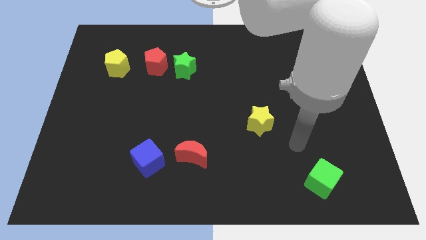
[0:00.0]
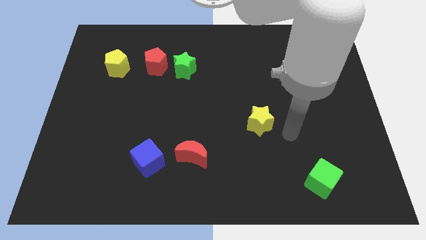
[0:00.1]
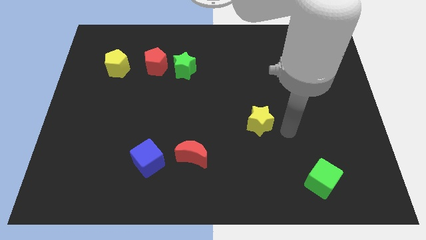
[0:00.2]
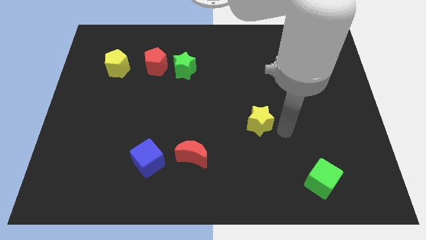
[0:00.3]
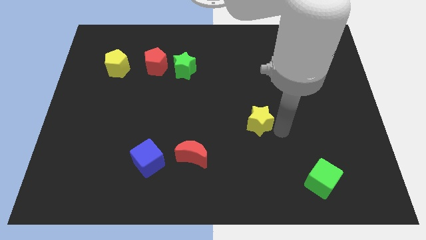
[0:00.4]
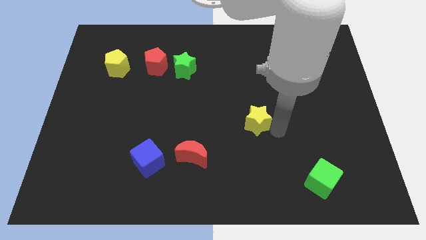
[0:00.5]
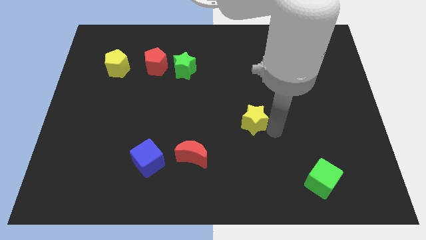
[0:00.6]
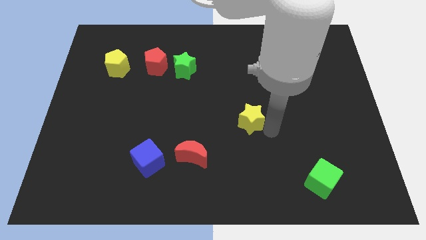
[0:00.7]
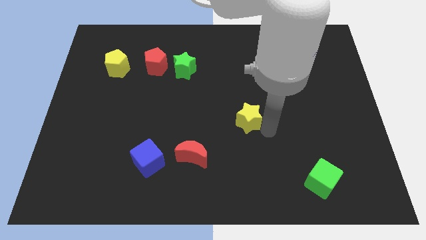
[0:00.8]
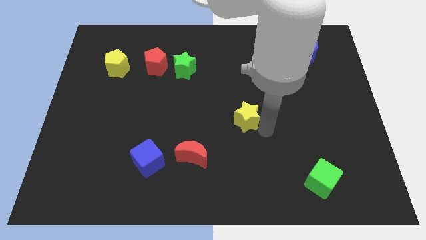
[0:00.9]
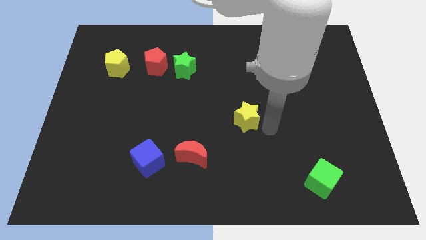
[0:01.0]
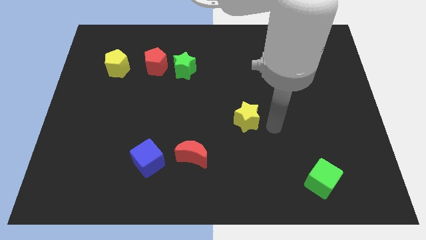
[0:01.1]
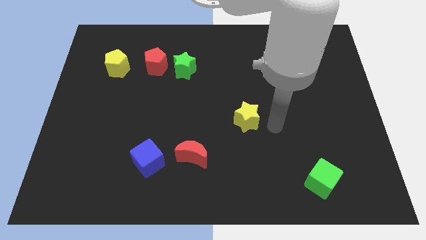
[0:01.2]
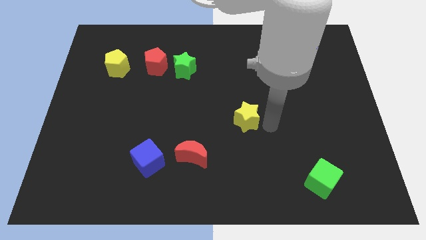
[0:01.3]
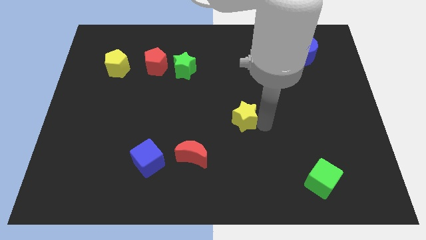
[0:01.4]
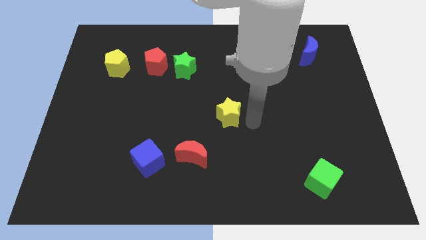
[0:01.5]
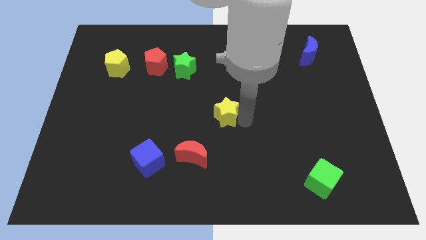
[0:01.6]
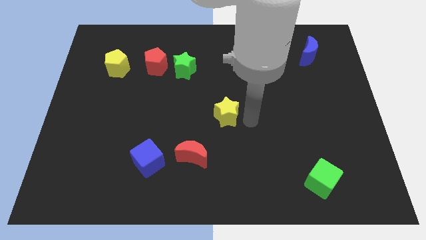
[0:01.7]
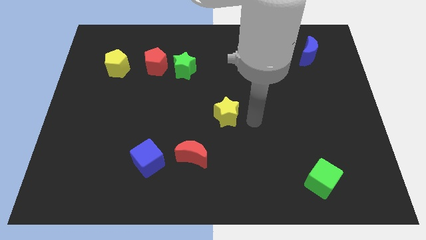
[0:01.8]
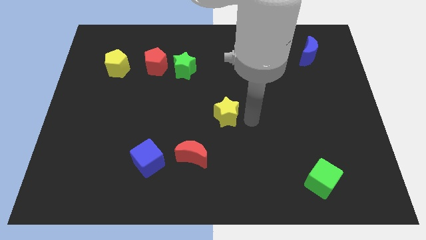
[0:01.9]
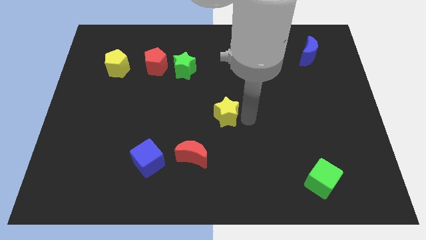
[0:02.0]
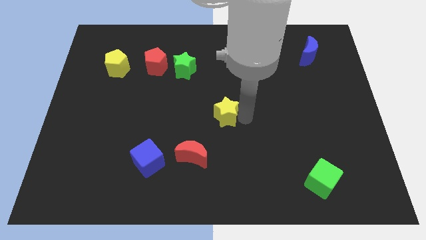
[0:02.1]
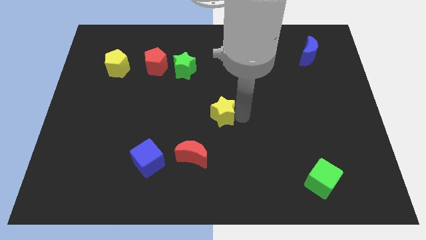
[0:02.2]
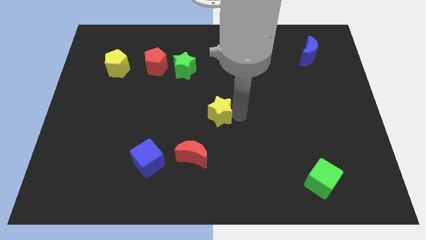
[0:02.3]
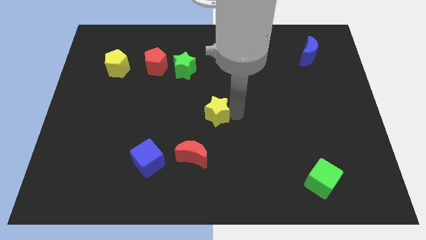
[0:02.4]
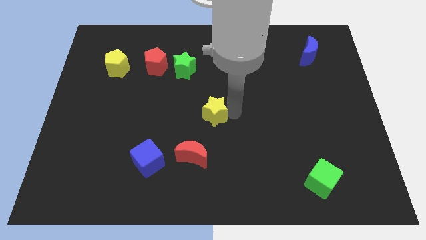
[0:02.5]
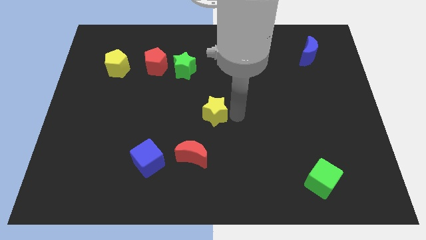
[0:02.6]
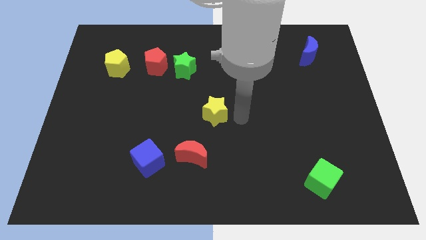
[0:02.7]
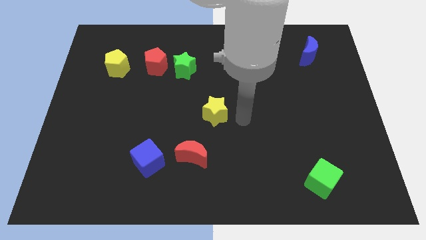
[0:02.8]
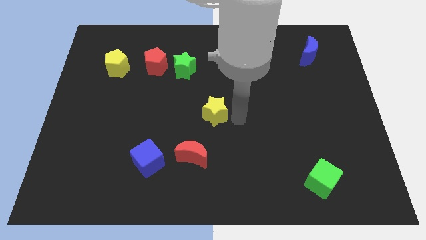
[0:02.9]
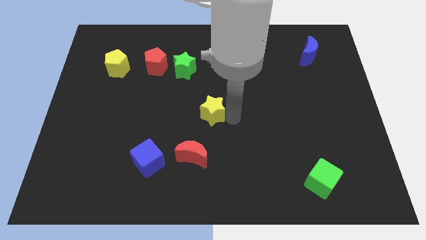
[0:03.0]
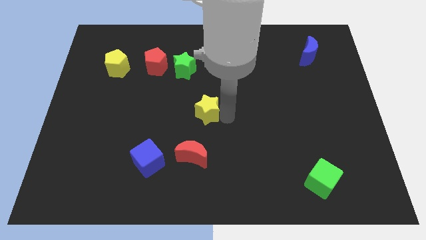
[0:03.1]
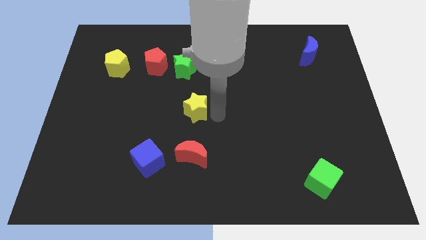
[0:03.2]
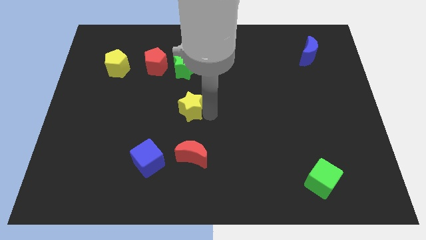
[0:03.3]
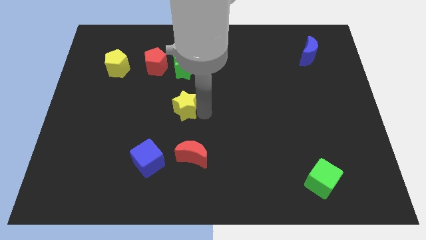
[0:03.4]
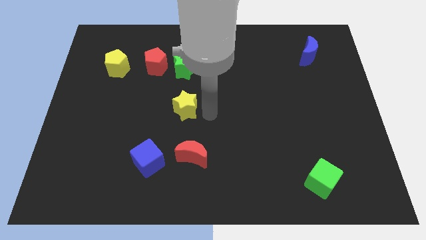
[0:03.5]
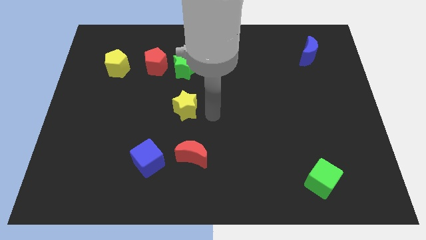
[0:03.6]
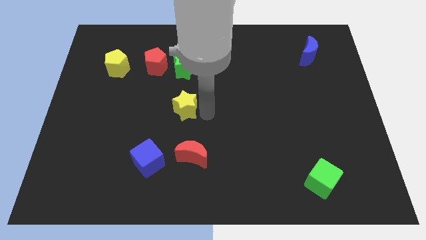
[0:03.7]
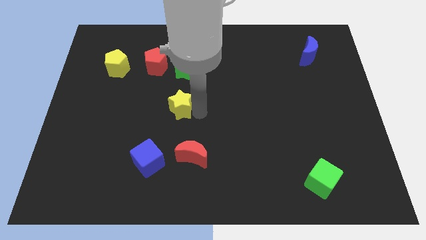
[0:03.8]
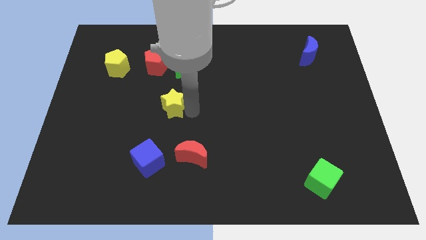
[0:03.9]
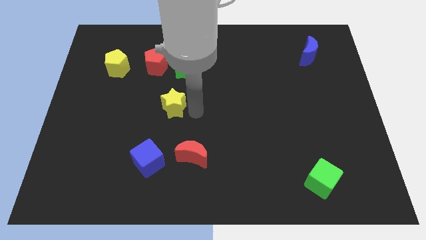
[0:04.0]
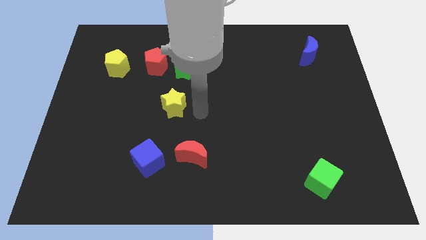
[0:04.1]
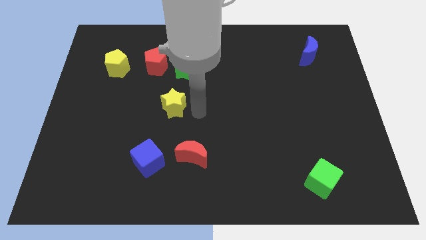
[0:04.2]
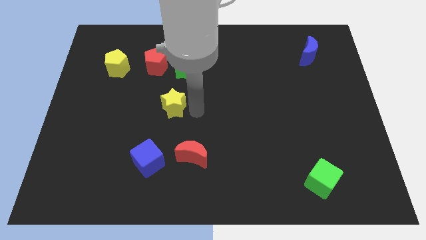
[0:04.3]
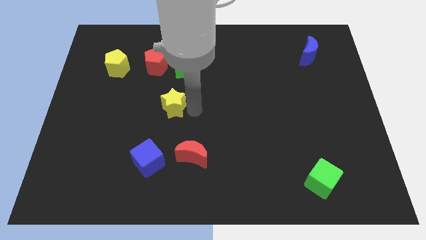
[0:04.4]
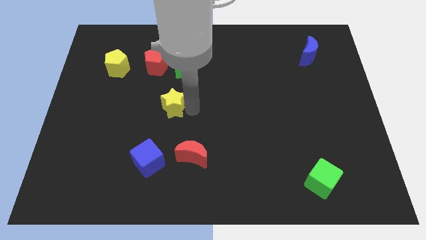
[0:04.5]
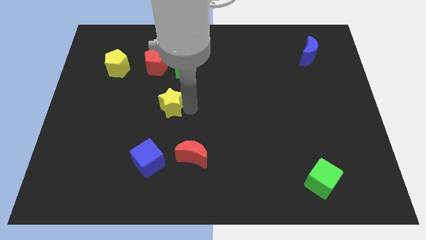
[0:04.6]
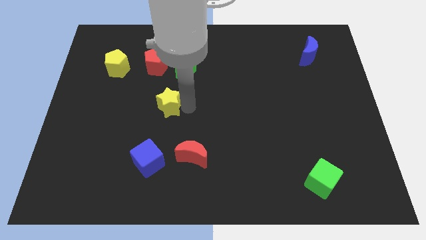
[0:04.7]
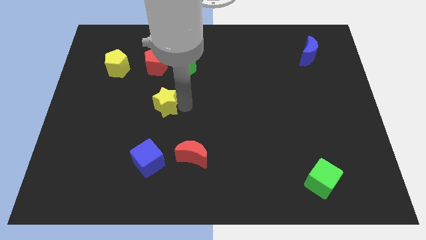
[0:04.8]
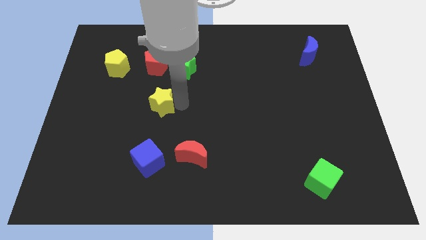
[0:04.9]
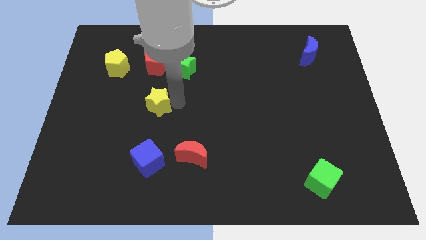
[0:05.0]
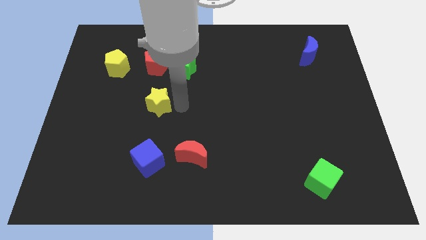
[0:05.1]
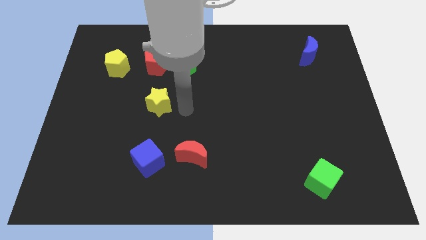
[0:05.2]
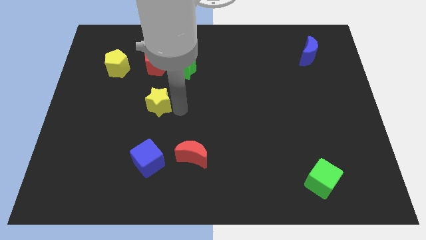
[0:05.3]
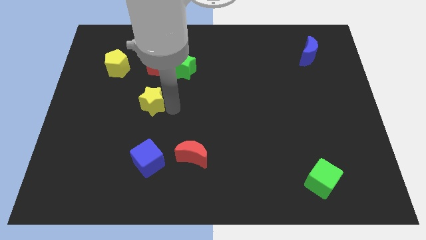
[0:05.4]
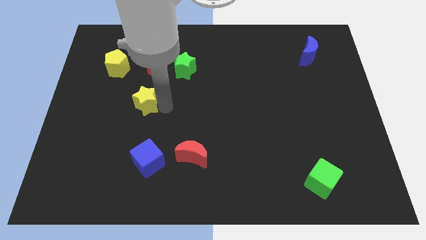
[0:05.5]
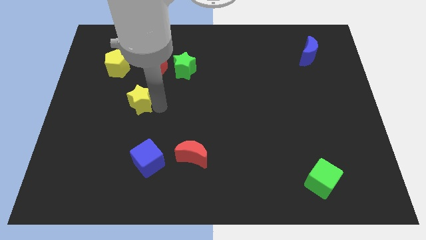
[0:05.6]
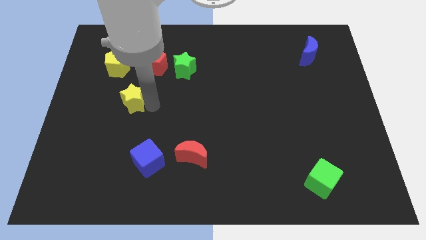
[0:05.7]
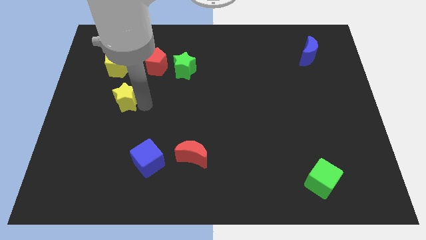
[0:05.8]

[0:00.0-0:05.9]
push the yellow star to the bottom side of the yellow pentagon

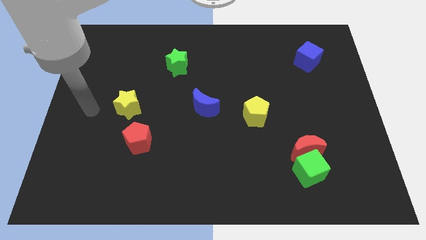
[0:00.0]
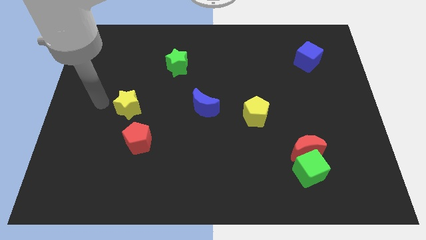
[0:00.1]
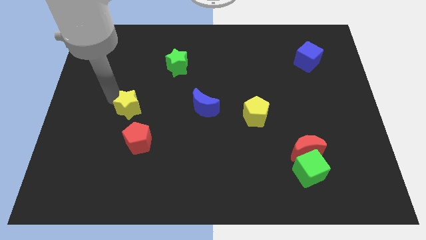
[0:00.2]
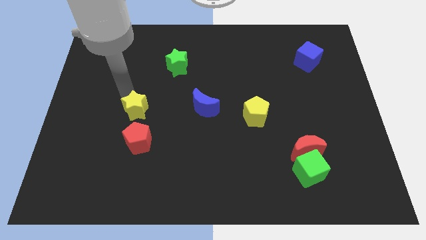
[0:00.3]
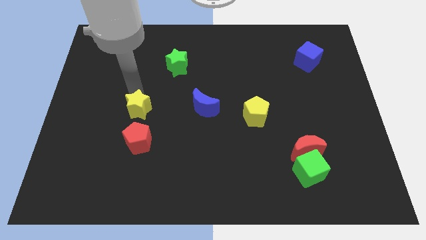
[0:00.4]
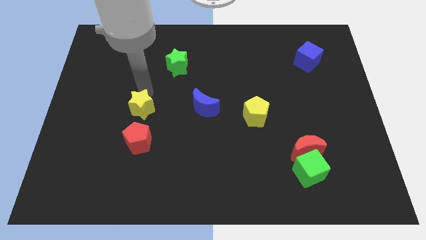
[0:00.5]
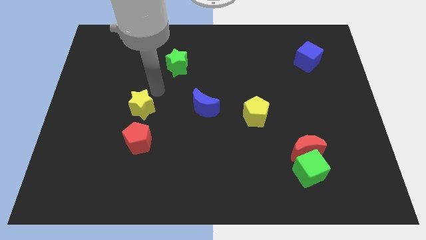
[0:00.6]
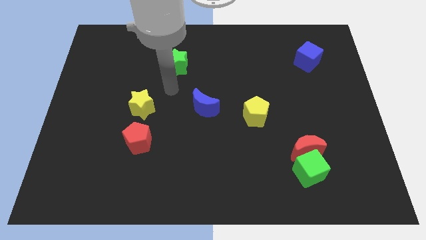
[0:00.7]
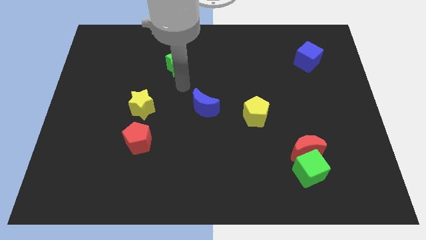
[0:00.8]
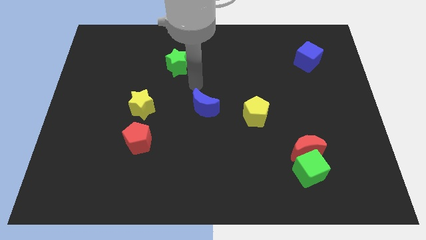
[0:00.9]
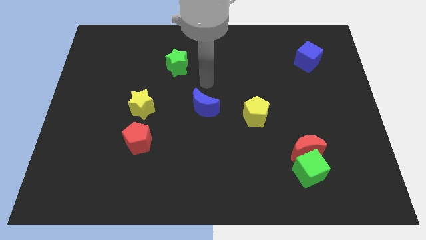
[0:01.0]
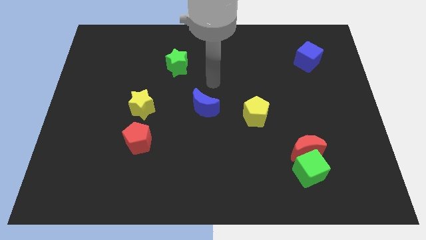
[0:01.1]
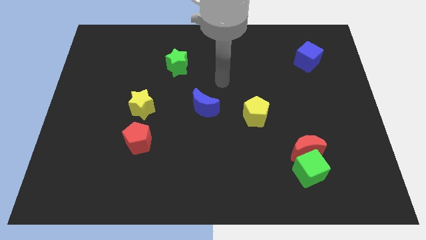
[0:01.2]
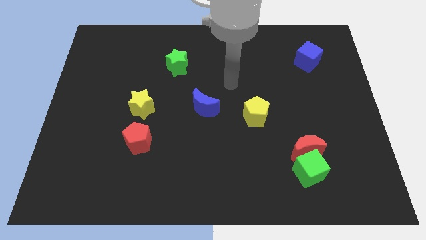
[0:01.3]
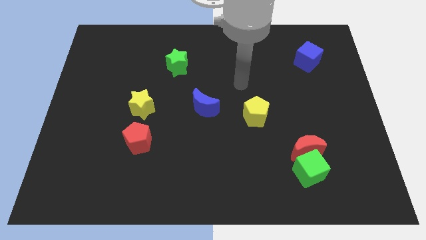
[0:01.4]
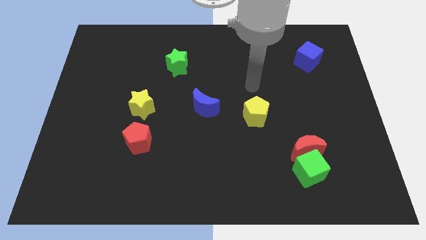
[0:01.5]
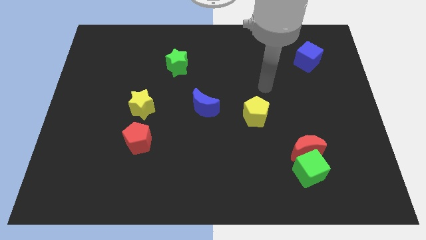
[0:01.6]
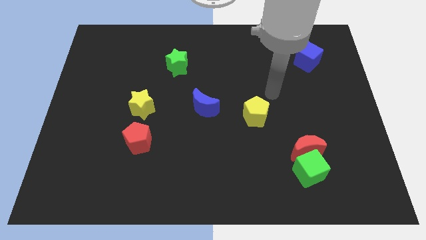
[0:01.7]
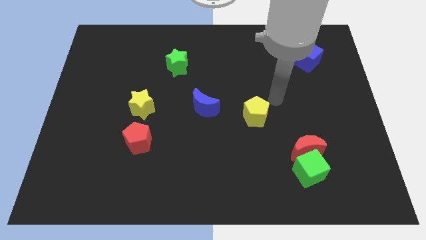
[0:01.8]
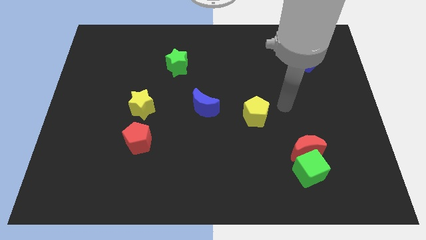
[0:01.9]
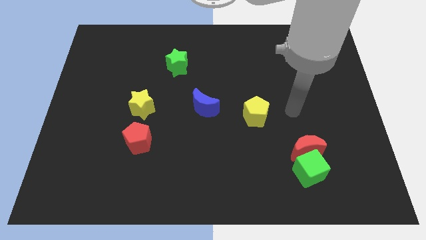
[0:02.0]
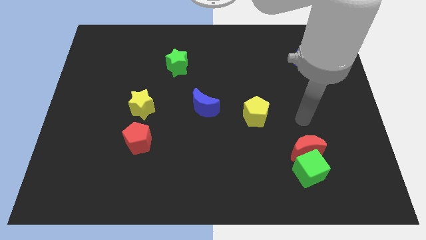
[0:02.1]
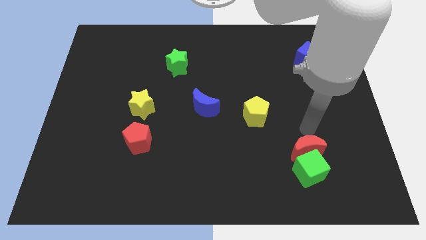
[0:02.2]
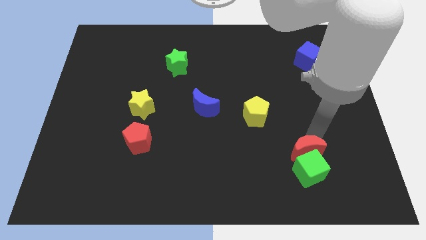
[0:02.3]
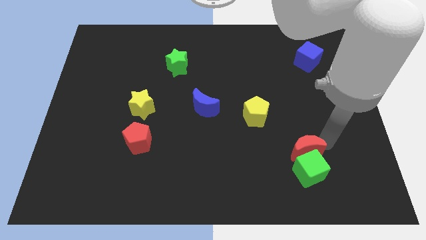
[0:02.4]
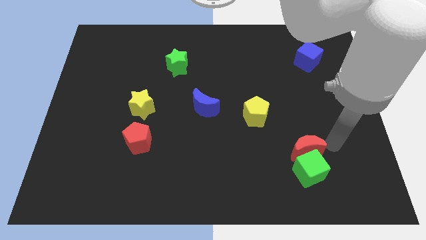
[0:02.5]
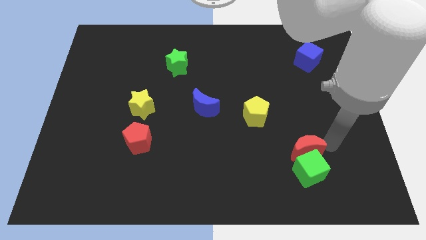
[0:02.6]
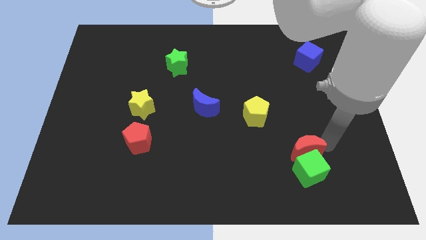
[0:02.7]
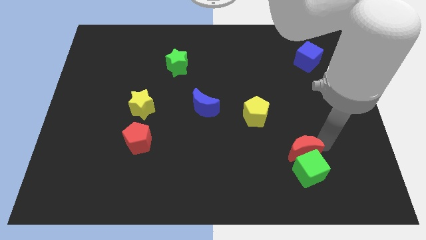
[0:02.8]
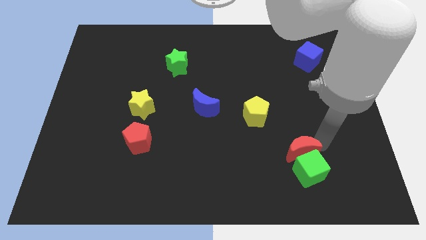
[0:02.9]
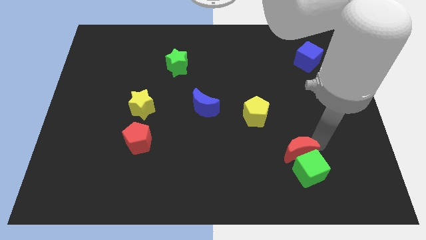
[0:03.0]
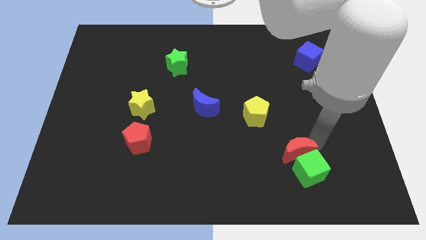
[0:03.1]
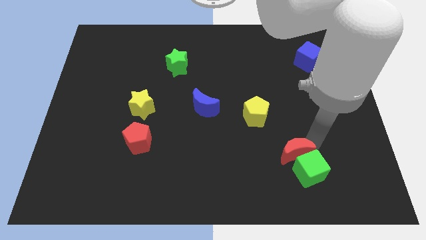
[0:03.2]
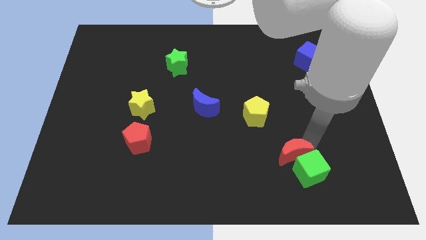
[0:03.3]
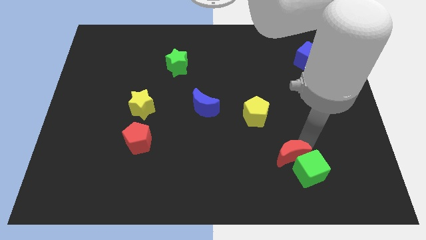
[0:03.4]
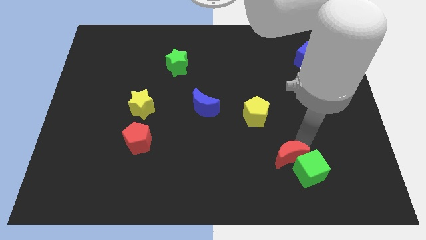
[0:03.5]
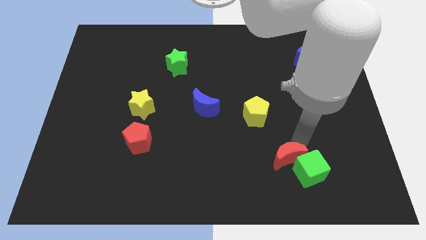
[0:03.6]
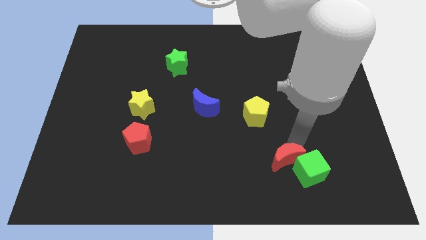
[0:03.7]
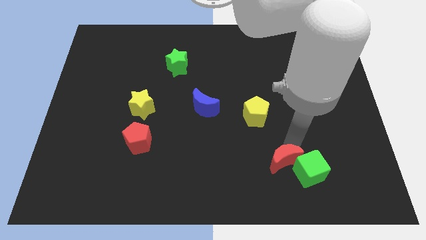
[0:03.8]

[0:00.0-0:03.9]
put the red moon to the bottom side of the yellow pentagon
